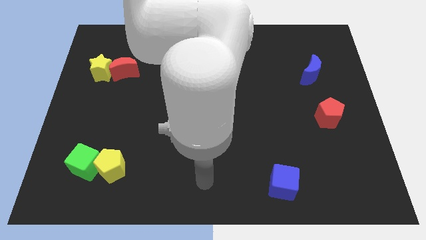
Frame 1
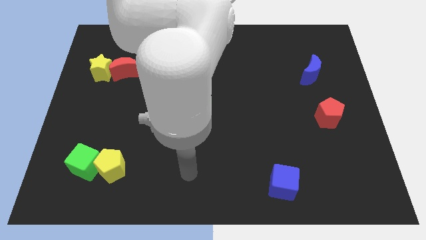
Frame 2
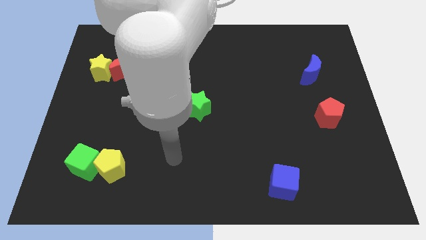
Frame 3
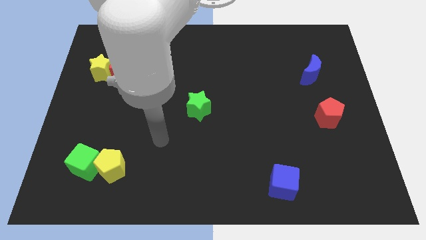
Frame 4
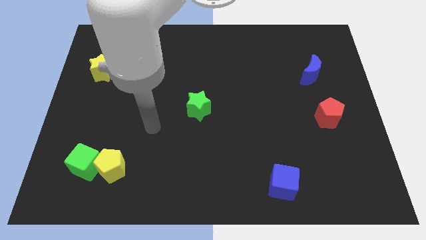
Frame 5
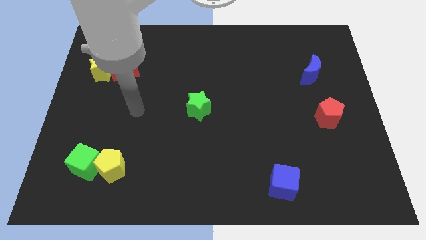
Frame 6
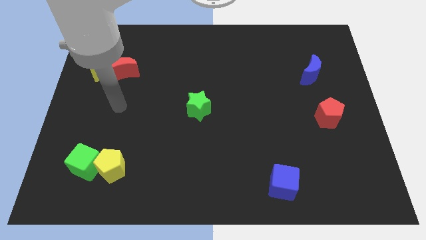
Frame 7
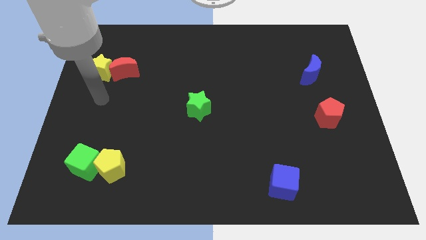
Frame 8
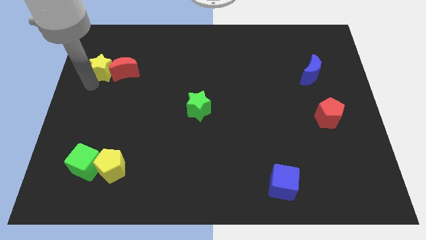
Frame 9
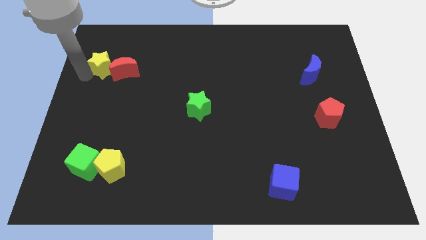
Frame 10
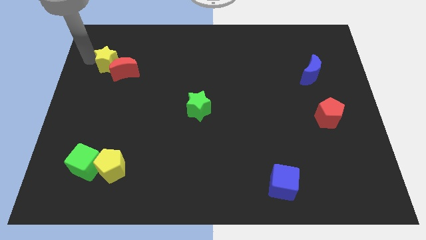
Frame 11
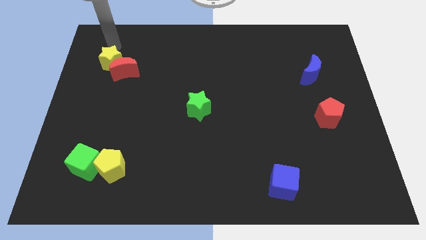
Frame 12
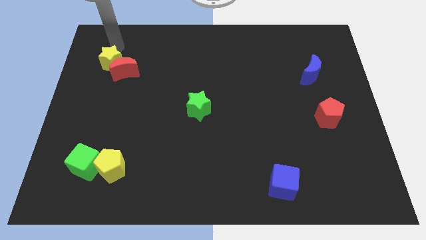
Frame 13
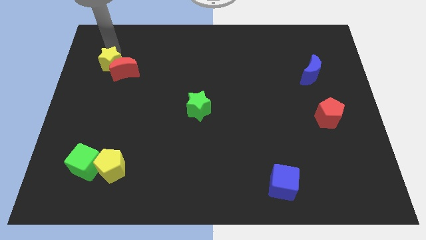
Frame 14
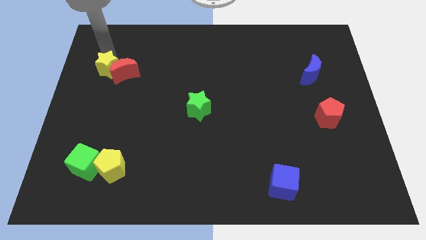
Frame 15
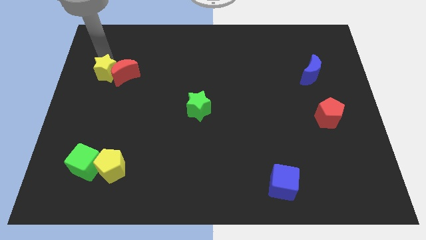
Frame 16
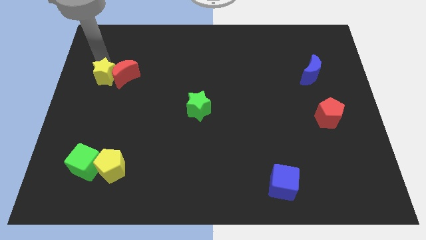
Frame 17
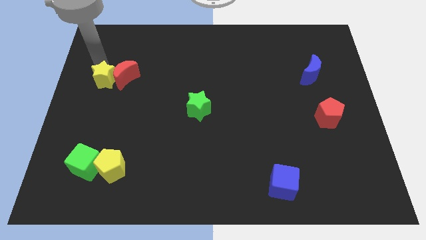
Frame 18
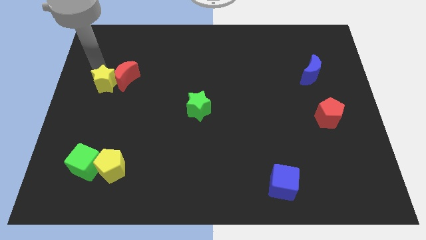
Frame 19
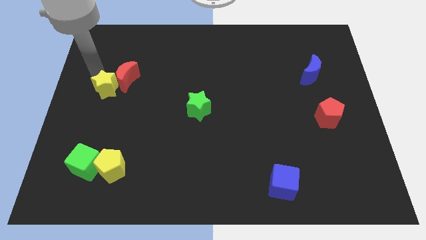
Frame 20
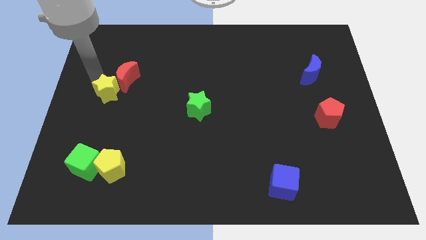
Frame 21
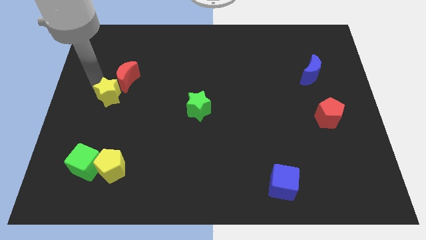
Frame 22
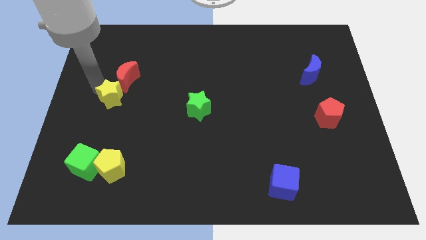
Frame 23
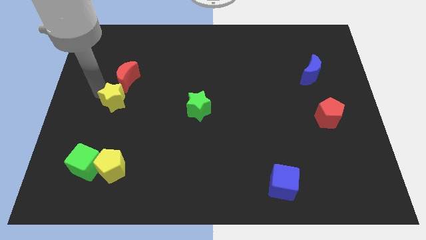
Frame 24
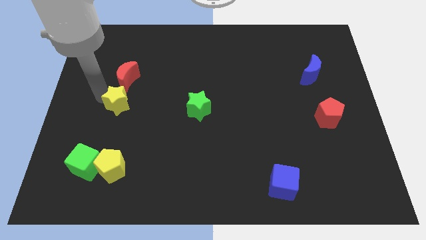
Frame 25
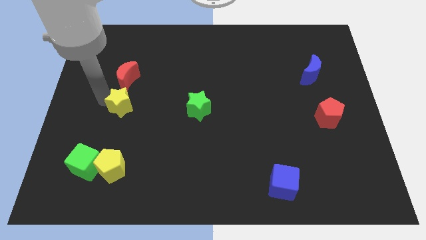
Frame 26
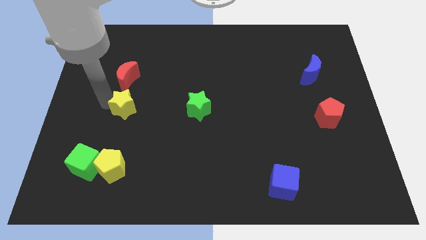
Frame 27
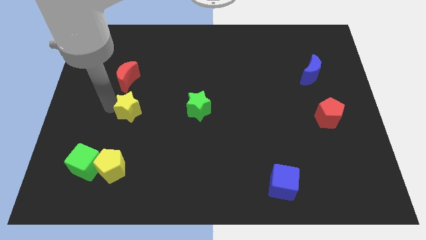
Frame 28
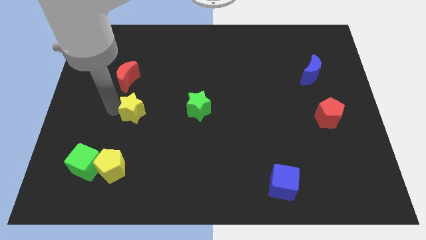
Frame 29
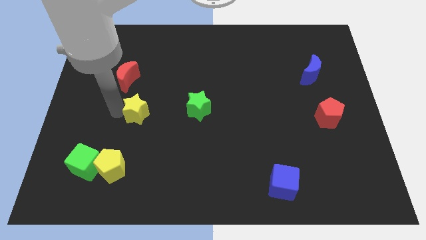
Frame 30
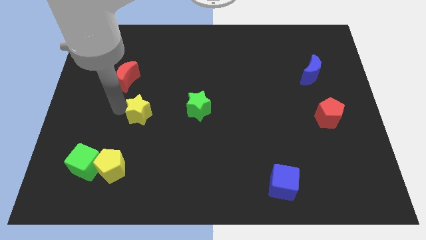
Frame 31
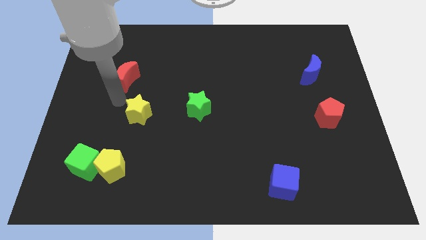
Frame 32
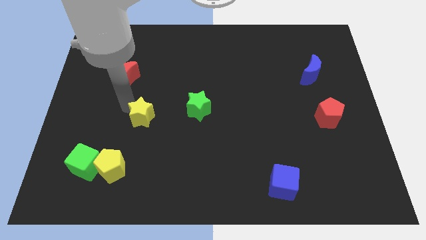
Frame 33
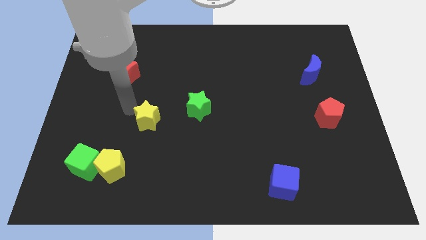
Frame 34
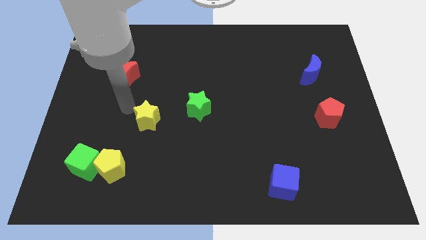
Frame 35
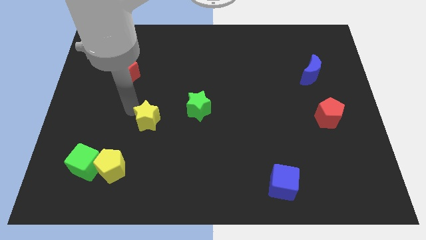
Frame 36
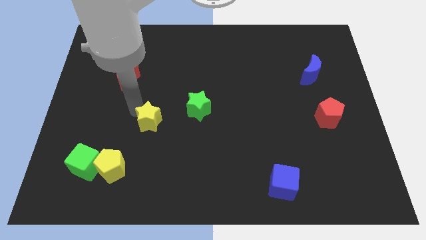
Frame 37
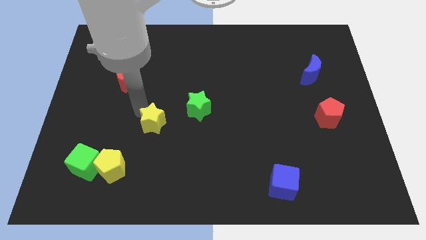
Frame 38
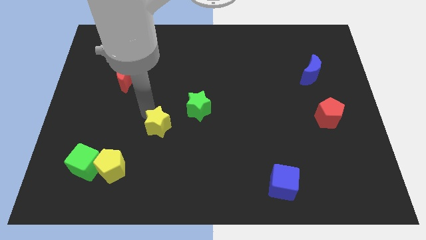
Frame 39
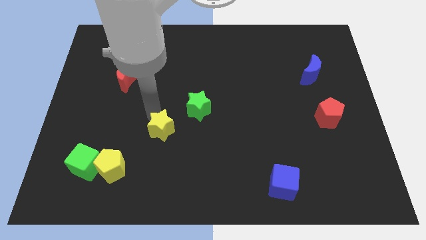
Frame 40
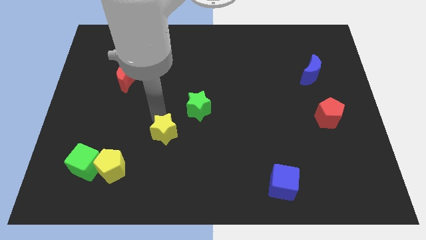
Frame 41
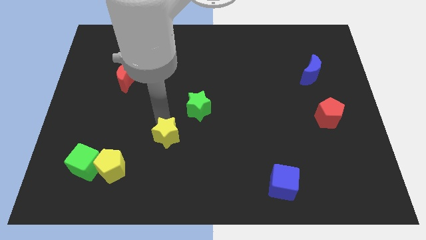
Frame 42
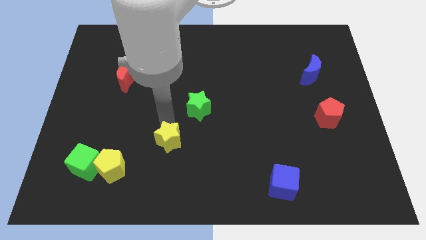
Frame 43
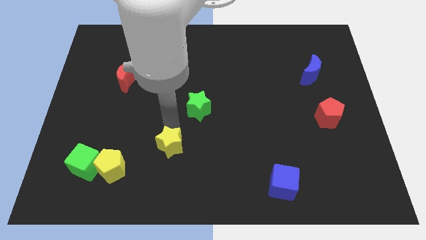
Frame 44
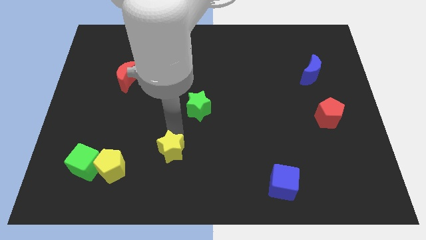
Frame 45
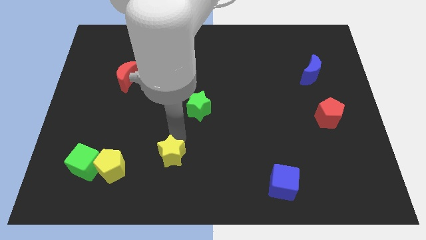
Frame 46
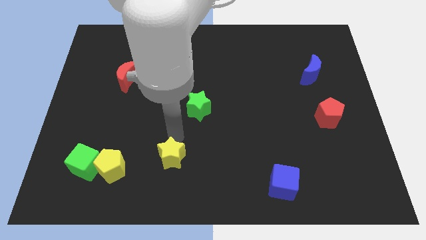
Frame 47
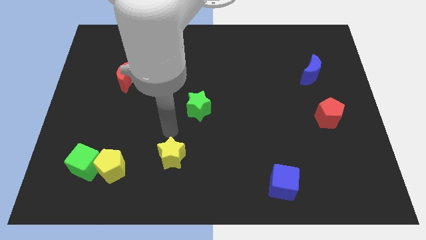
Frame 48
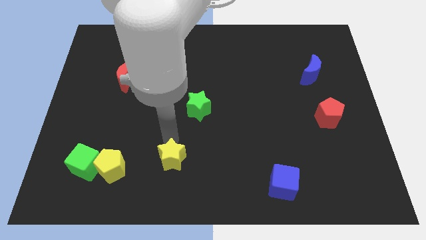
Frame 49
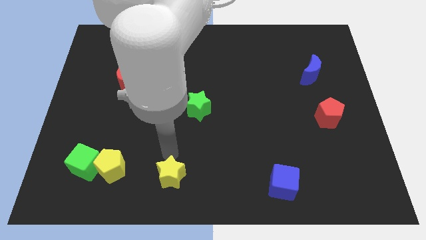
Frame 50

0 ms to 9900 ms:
put the yellow star to the bottom side

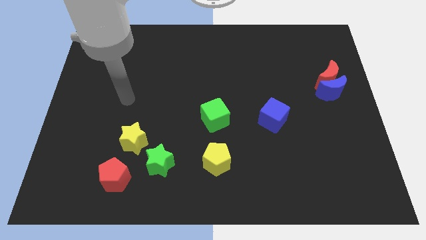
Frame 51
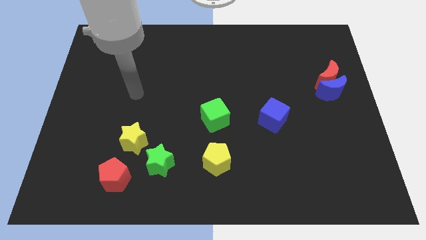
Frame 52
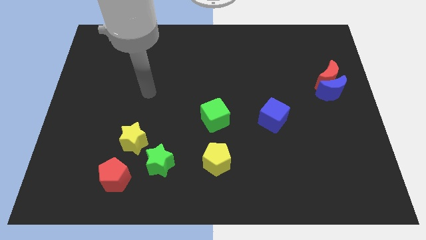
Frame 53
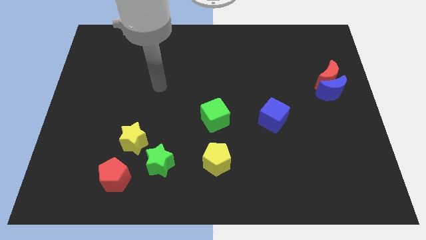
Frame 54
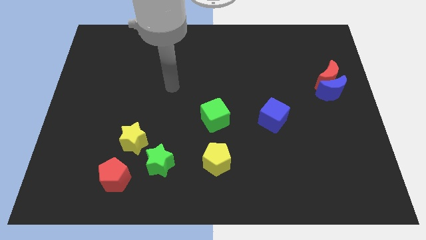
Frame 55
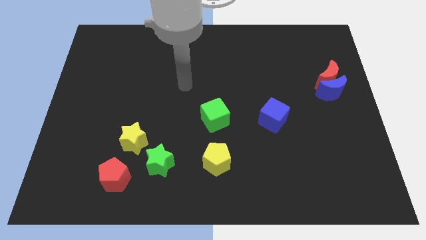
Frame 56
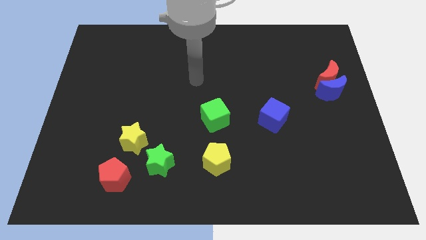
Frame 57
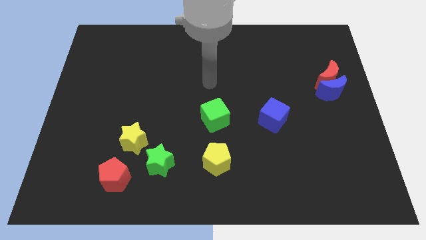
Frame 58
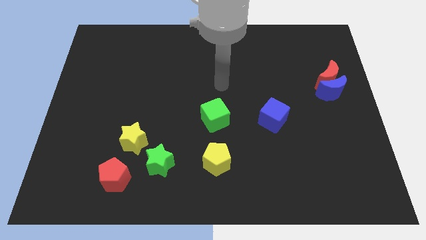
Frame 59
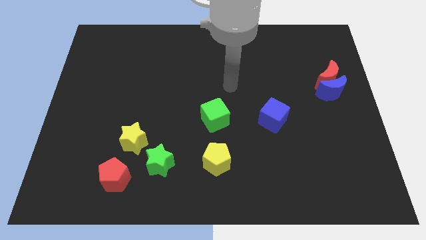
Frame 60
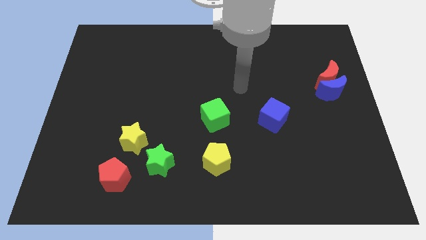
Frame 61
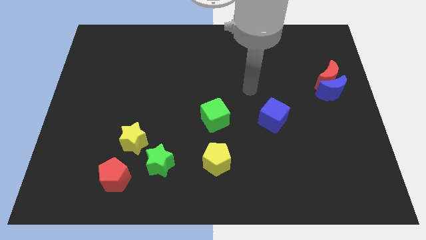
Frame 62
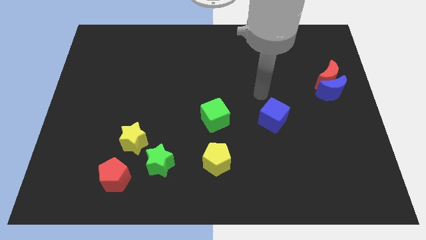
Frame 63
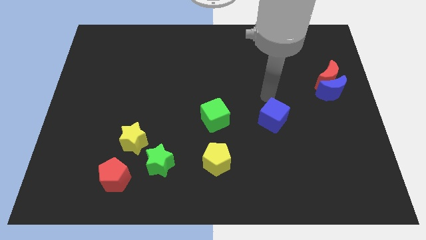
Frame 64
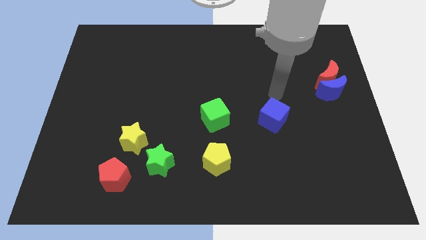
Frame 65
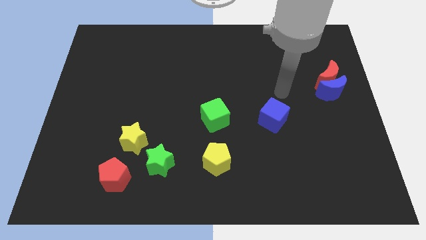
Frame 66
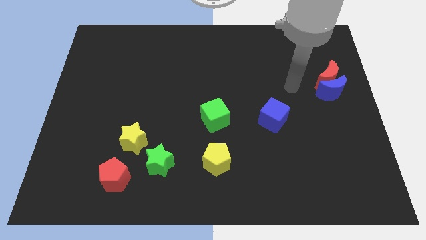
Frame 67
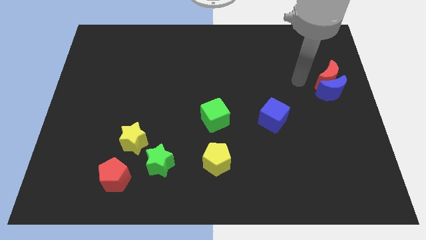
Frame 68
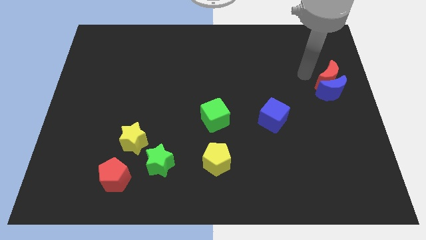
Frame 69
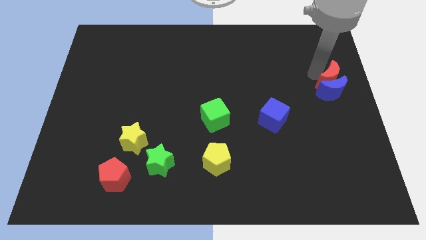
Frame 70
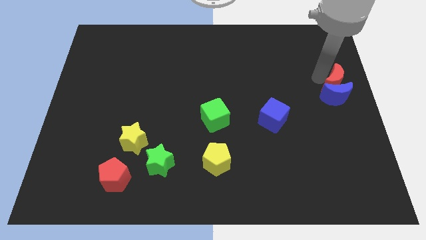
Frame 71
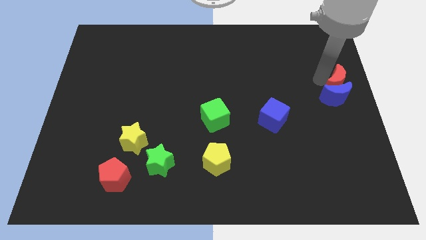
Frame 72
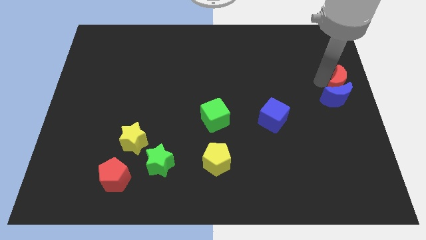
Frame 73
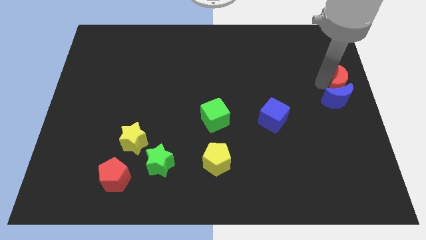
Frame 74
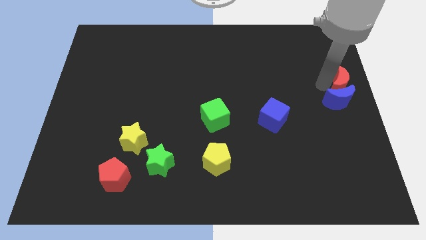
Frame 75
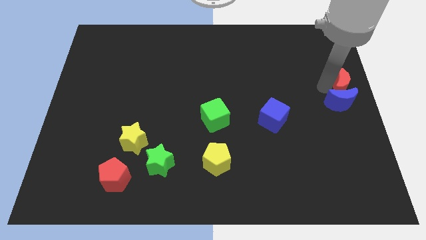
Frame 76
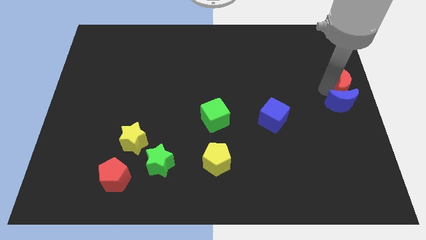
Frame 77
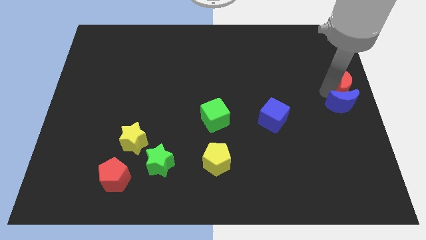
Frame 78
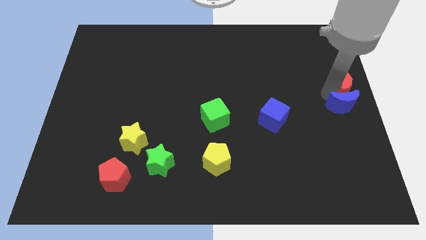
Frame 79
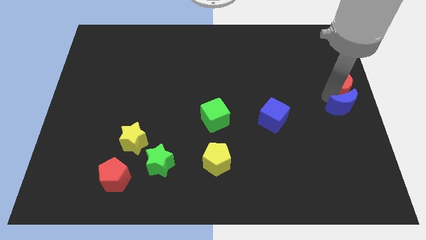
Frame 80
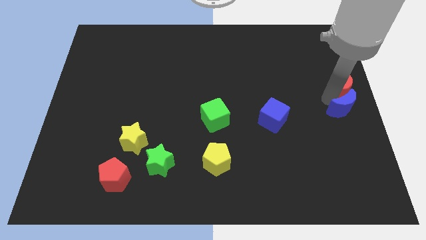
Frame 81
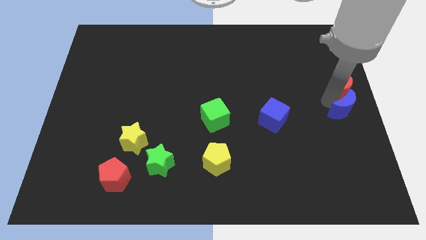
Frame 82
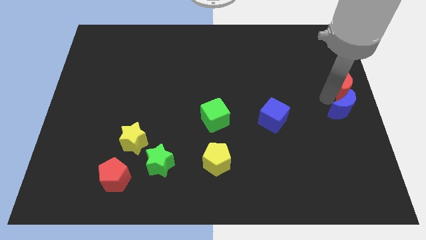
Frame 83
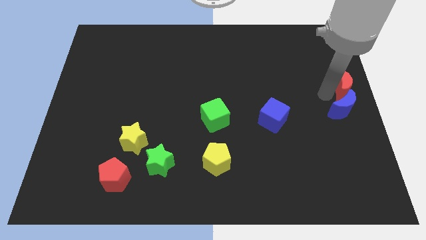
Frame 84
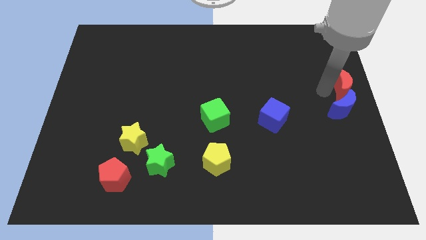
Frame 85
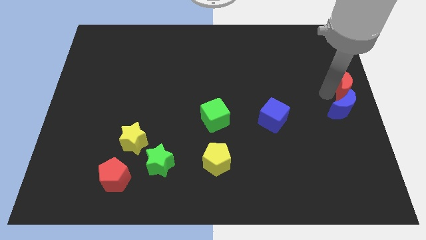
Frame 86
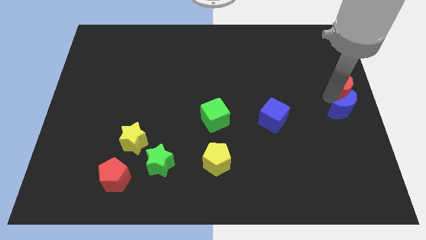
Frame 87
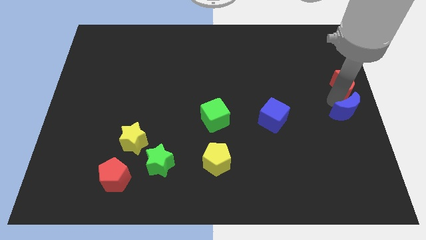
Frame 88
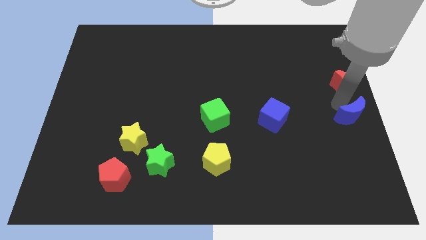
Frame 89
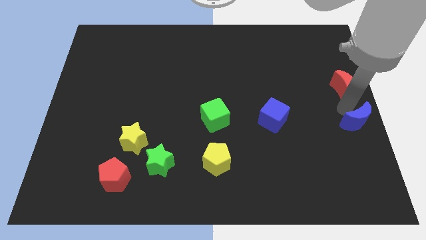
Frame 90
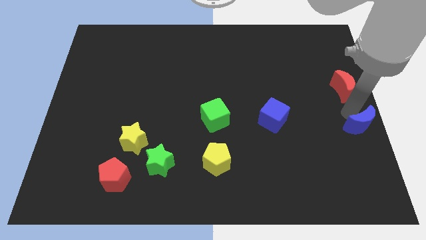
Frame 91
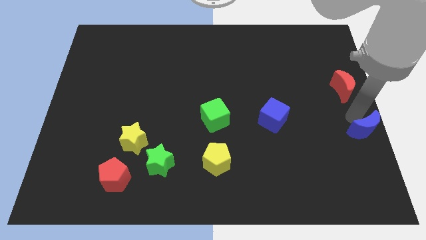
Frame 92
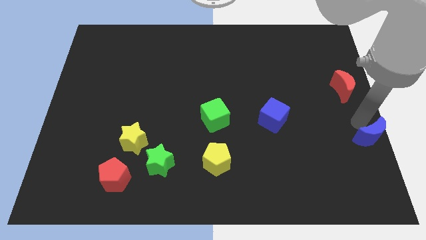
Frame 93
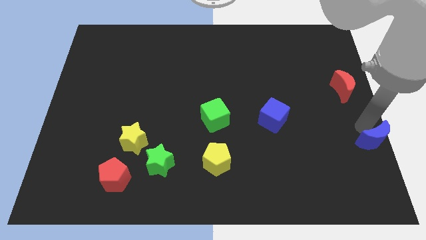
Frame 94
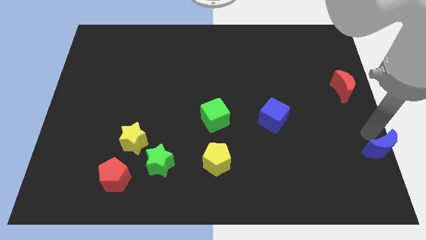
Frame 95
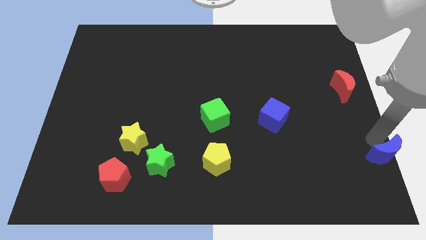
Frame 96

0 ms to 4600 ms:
move the blue moon to the bottom right corner
